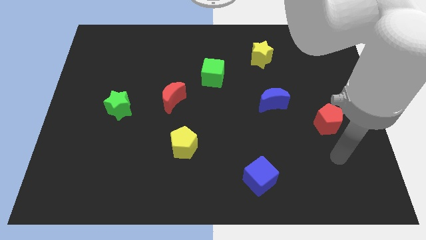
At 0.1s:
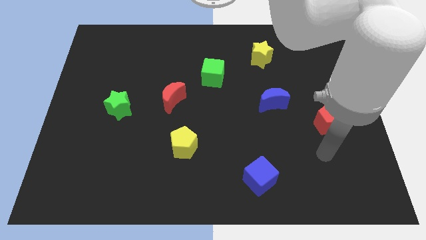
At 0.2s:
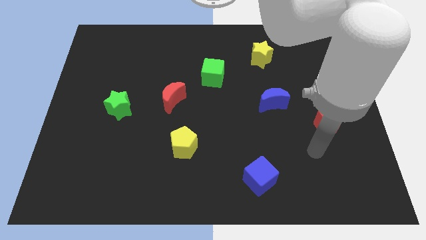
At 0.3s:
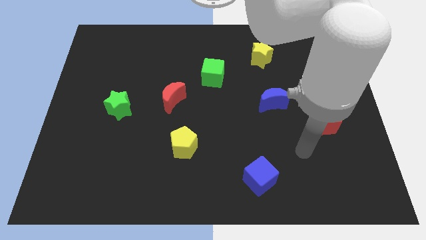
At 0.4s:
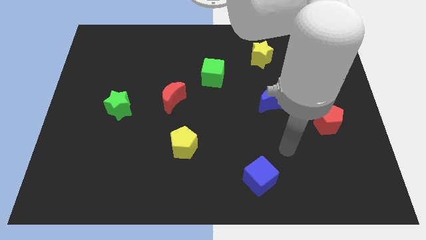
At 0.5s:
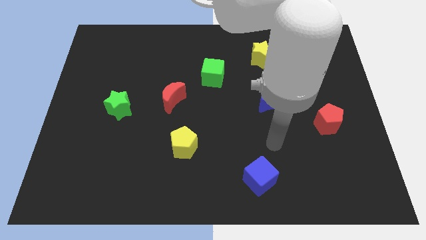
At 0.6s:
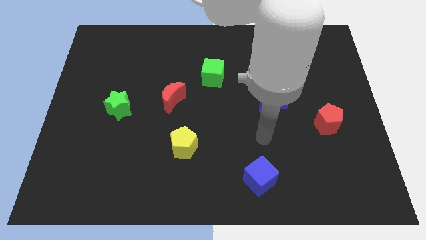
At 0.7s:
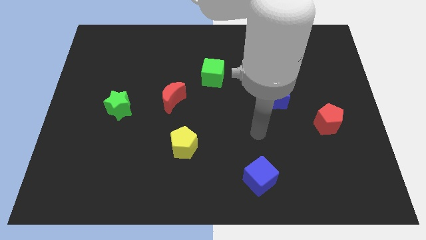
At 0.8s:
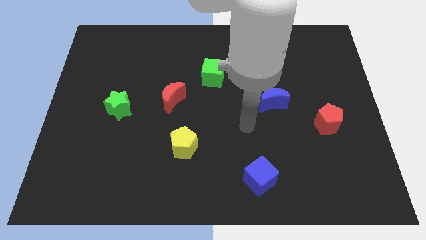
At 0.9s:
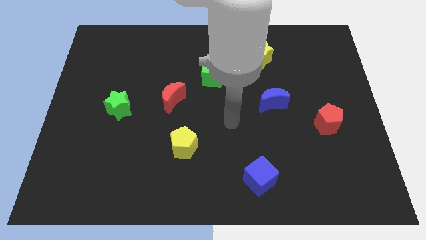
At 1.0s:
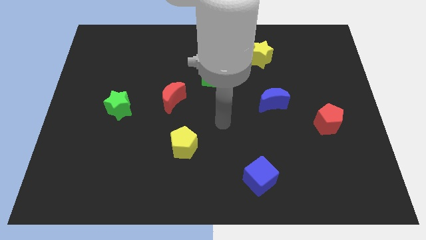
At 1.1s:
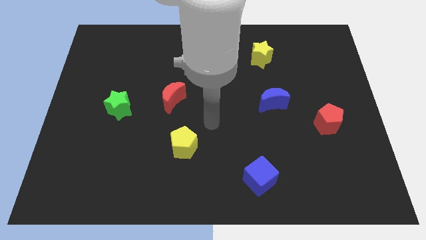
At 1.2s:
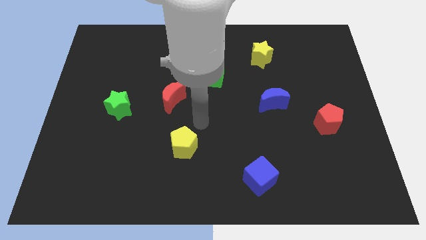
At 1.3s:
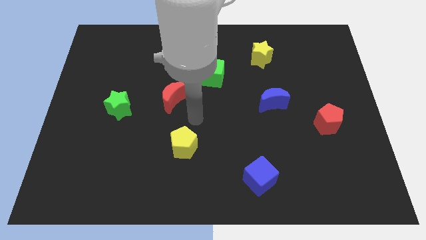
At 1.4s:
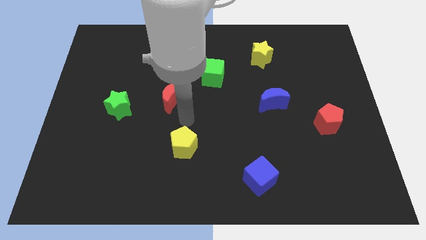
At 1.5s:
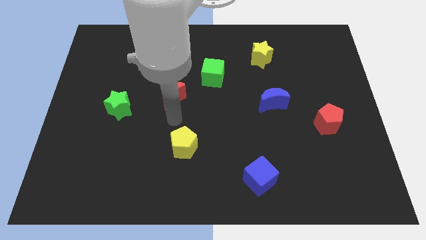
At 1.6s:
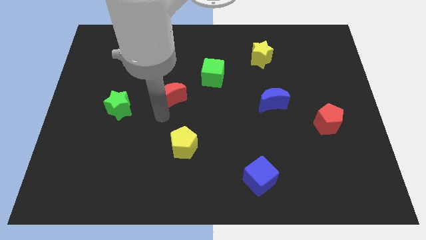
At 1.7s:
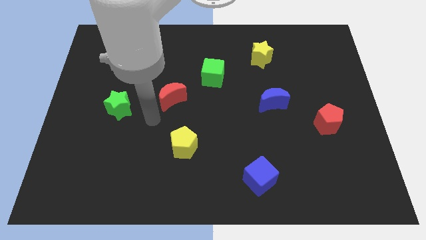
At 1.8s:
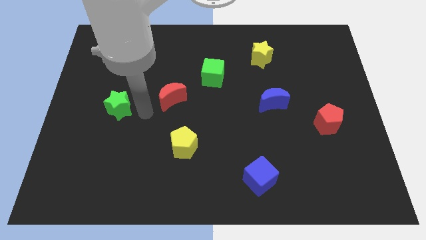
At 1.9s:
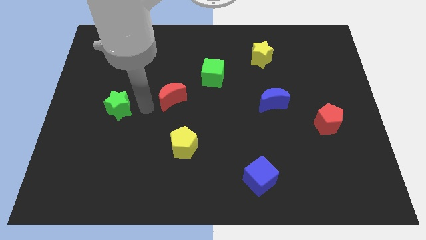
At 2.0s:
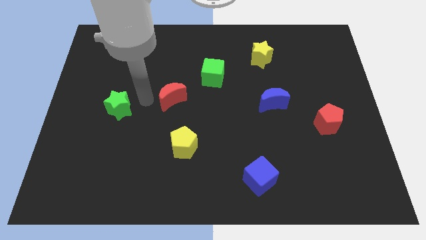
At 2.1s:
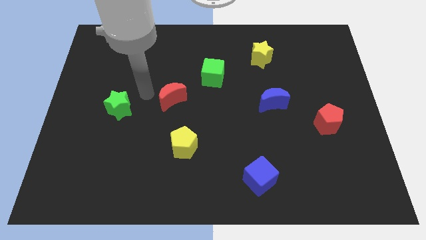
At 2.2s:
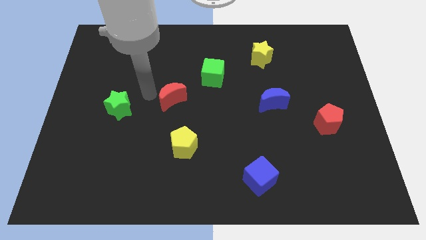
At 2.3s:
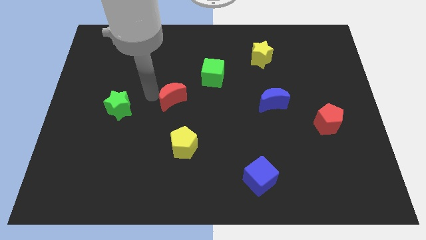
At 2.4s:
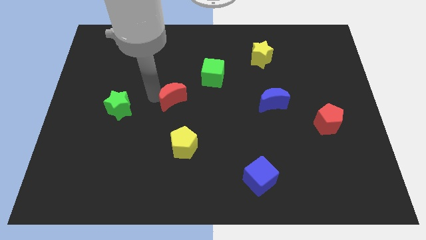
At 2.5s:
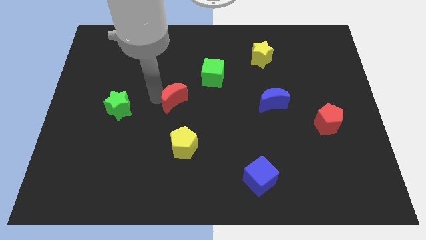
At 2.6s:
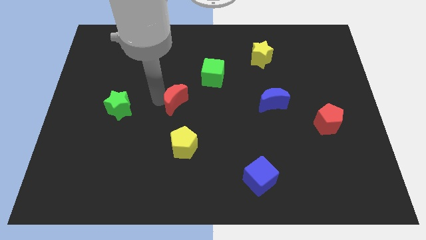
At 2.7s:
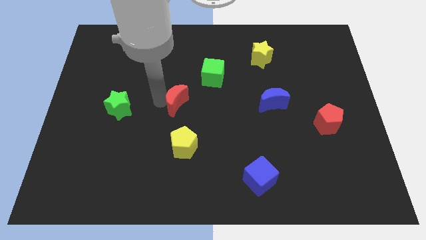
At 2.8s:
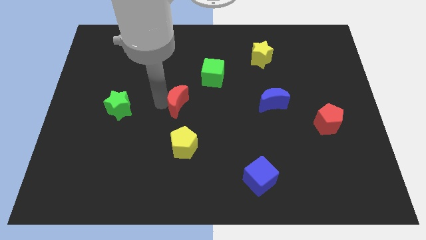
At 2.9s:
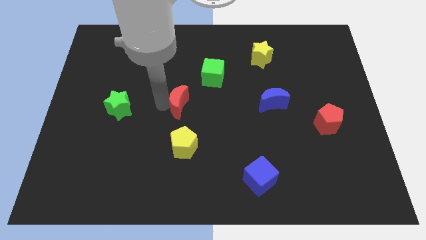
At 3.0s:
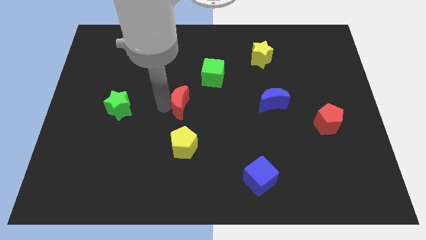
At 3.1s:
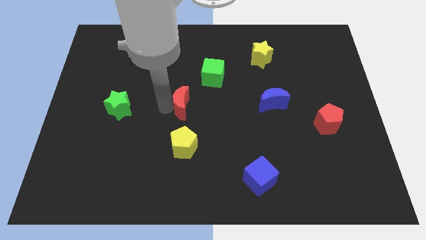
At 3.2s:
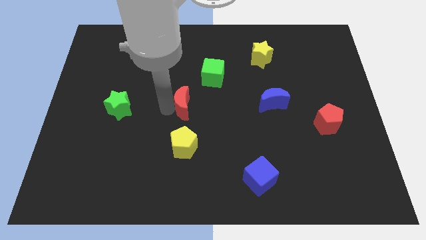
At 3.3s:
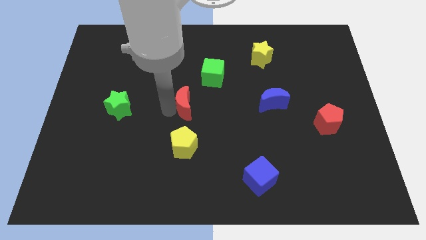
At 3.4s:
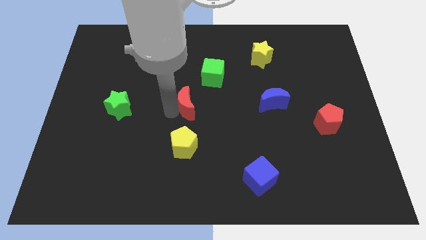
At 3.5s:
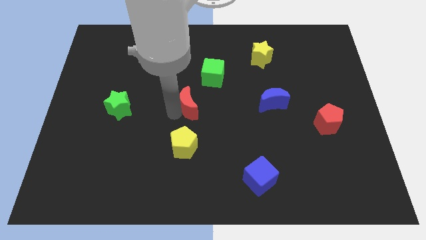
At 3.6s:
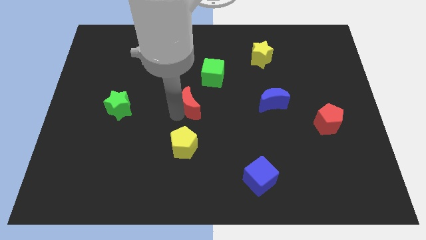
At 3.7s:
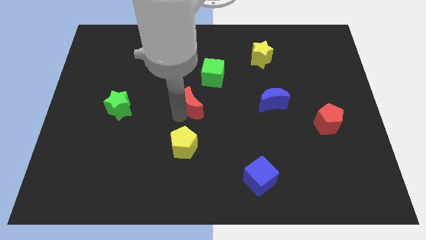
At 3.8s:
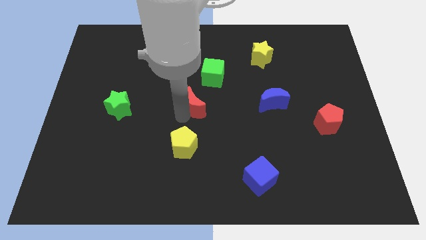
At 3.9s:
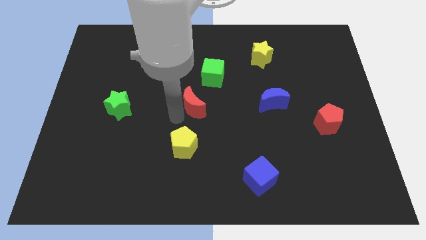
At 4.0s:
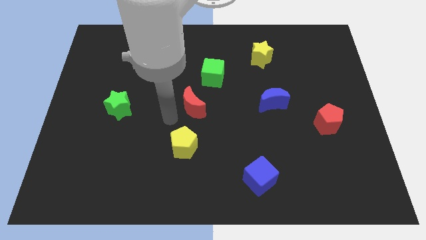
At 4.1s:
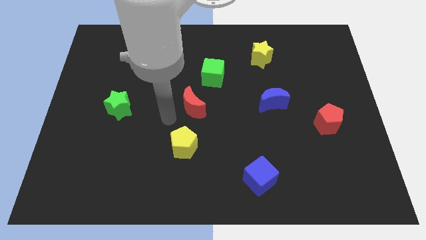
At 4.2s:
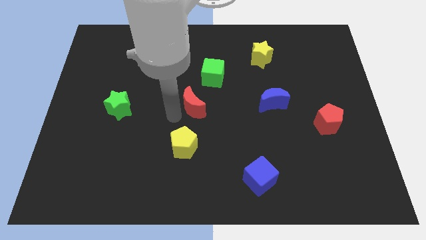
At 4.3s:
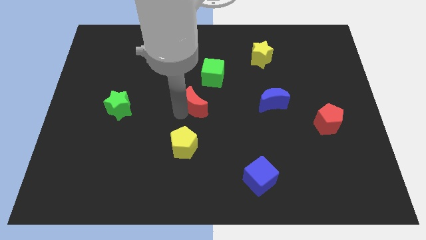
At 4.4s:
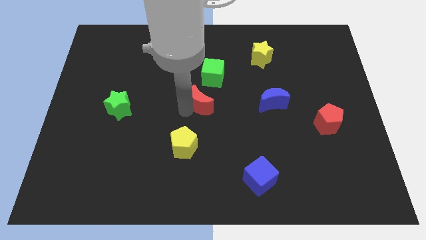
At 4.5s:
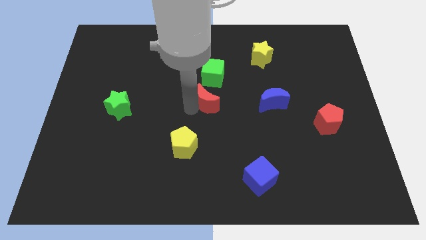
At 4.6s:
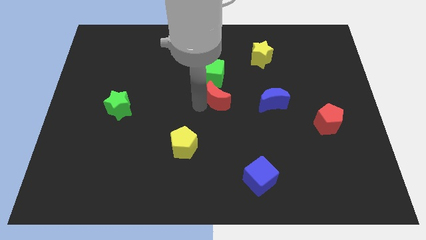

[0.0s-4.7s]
slide the red moon diagonally down and to the right of the green cube

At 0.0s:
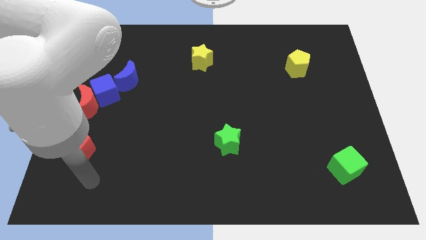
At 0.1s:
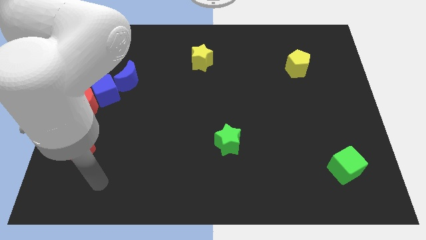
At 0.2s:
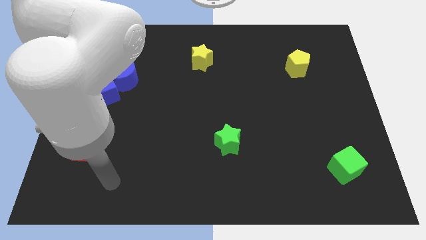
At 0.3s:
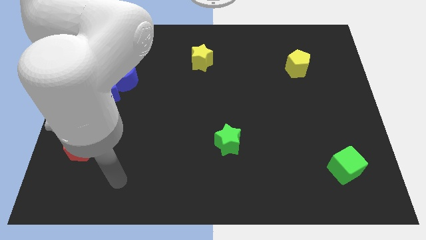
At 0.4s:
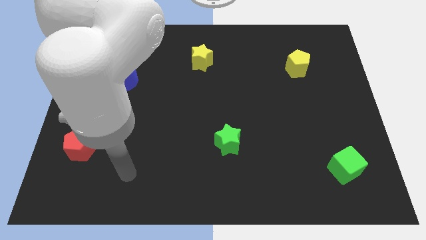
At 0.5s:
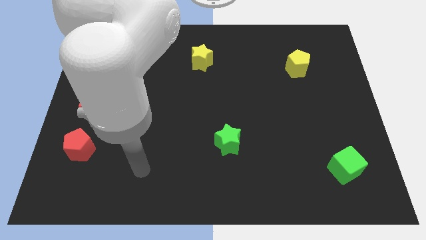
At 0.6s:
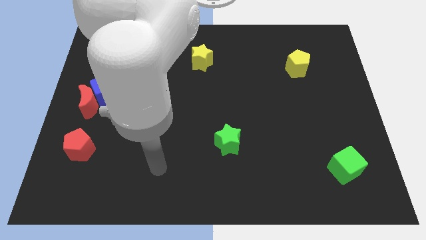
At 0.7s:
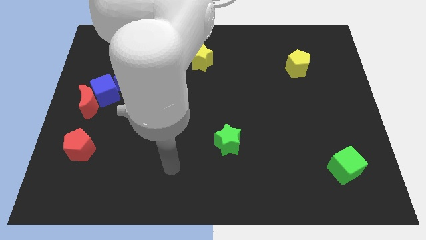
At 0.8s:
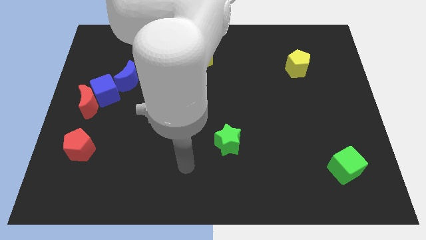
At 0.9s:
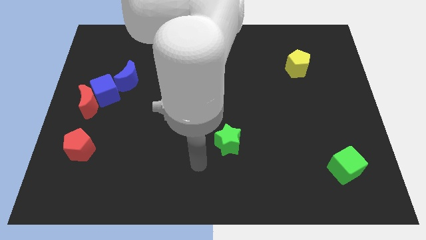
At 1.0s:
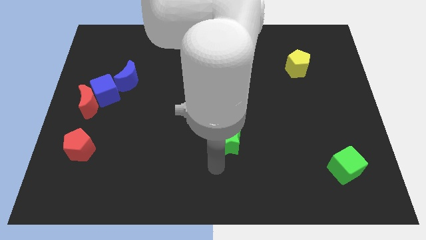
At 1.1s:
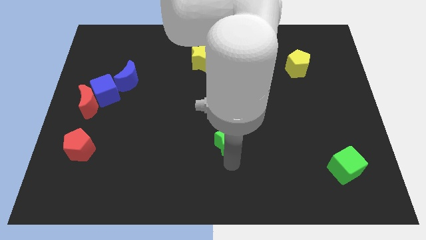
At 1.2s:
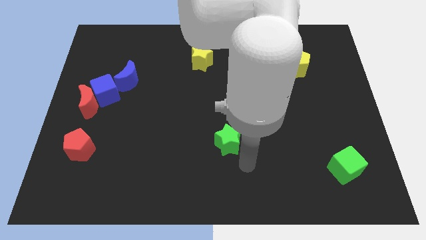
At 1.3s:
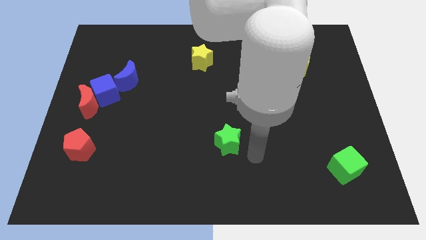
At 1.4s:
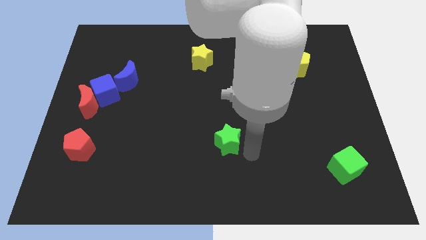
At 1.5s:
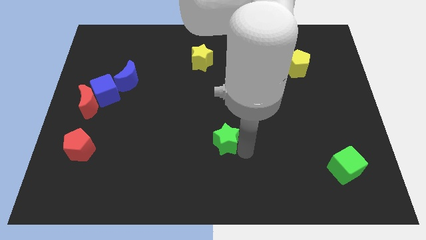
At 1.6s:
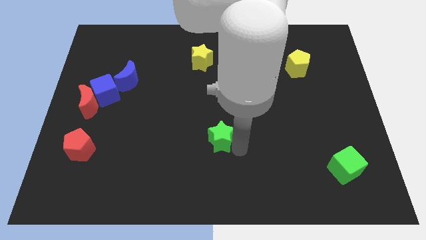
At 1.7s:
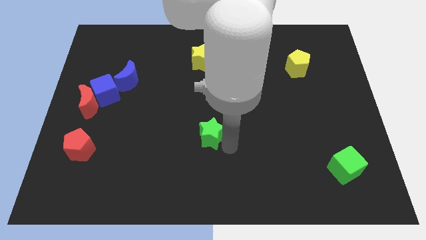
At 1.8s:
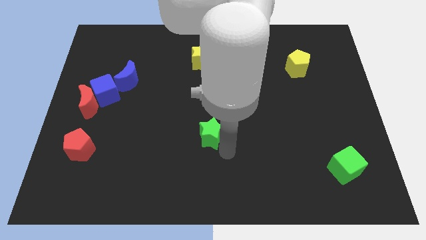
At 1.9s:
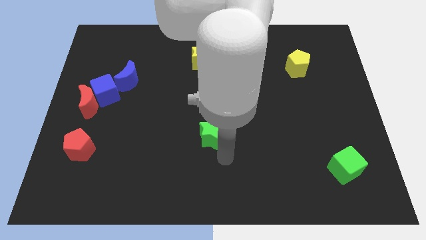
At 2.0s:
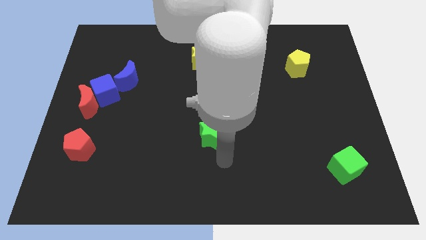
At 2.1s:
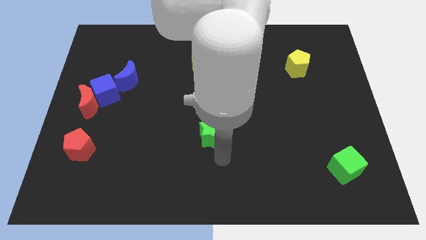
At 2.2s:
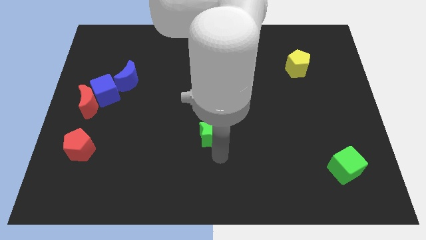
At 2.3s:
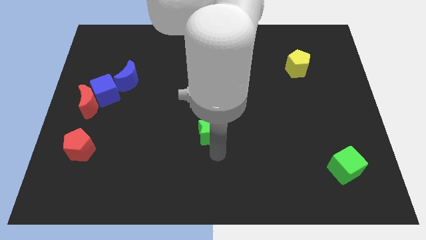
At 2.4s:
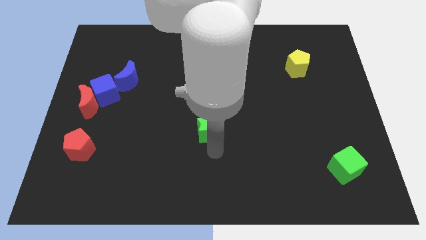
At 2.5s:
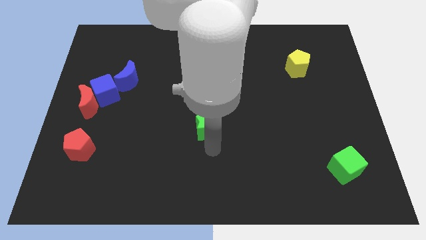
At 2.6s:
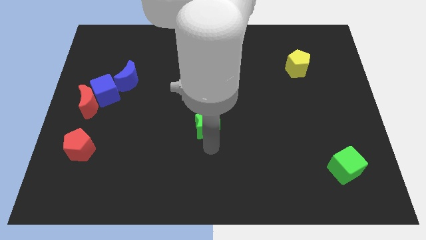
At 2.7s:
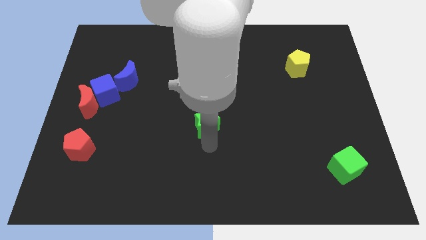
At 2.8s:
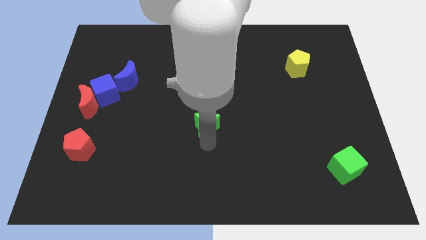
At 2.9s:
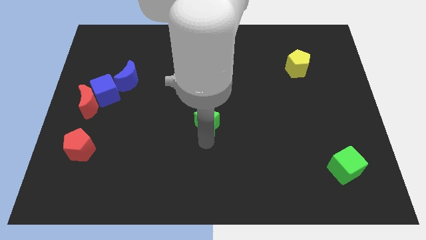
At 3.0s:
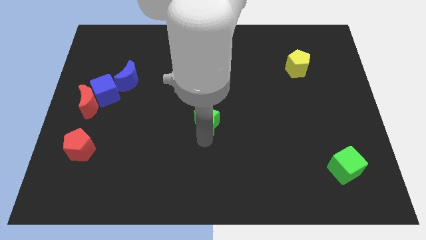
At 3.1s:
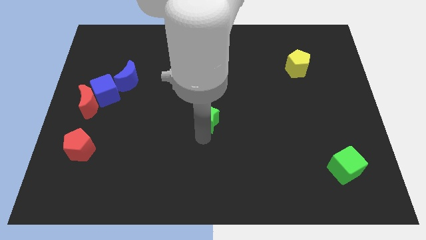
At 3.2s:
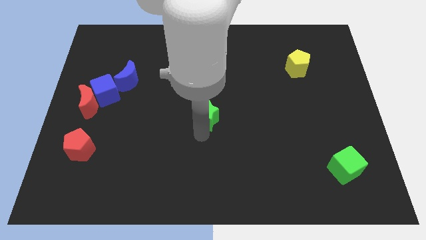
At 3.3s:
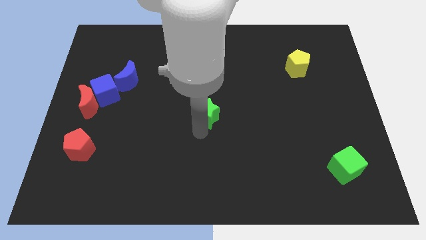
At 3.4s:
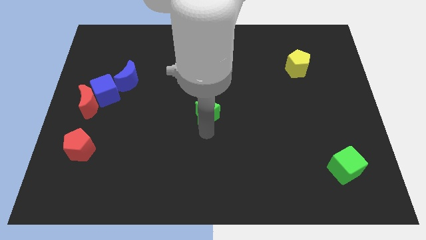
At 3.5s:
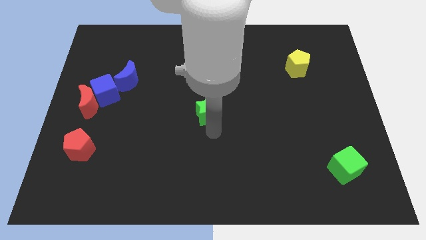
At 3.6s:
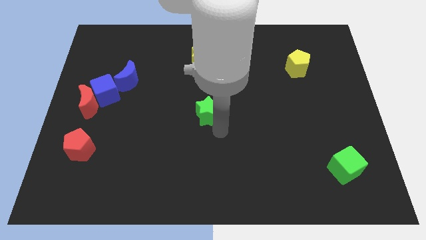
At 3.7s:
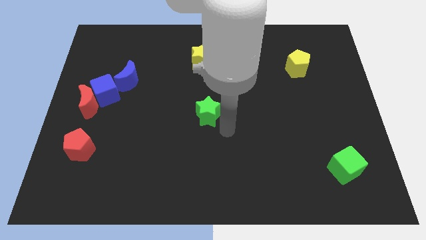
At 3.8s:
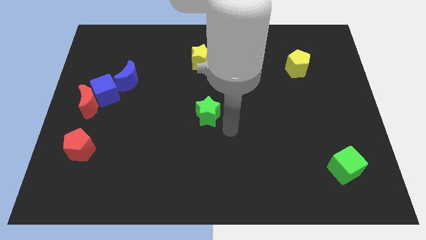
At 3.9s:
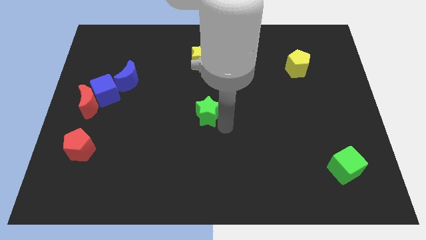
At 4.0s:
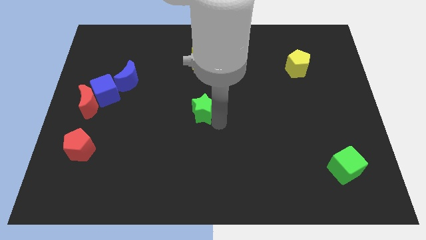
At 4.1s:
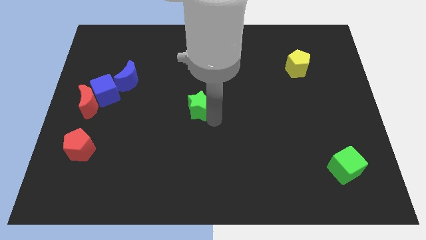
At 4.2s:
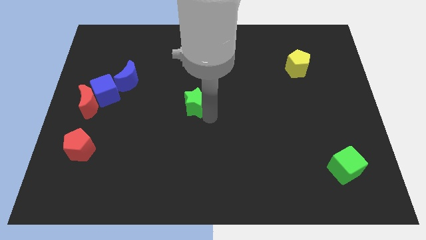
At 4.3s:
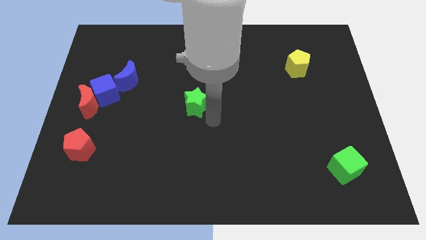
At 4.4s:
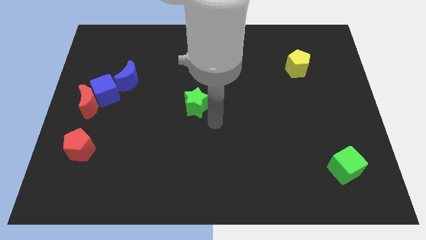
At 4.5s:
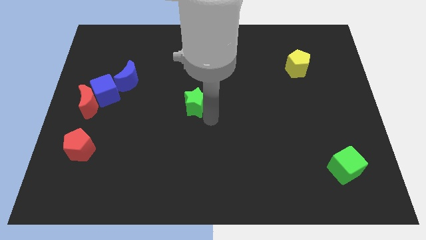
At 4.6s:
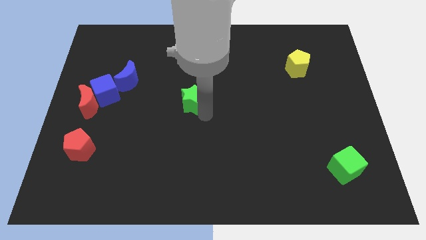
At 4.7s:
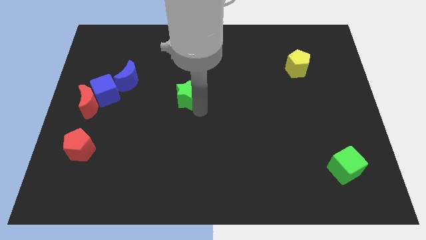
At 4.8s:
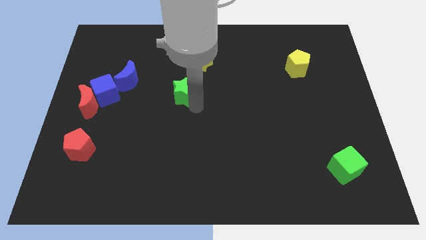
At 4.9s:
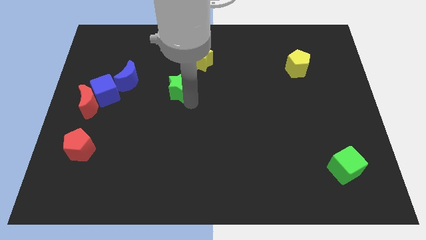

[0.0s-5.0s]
move the green star to the right side of the blue moon
